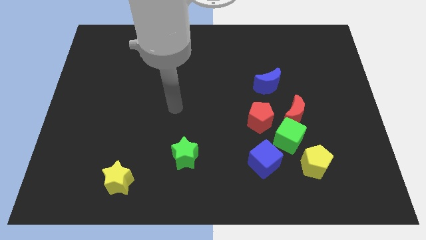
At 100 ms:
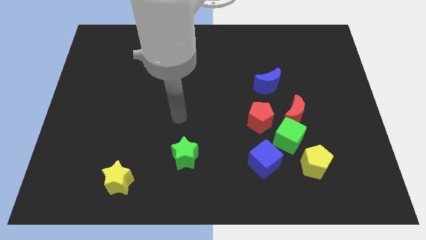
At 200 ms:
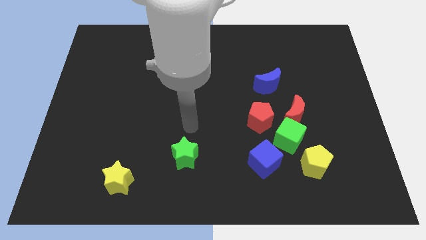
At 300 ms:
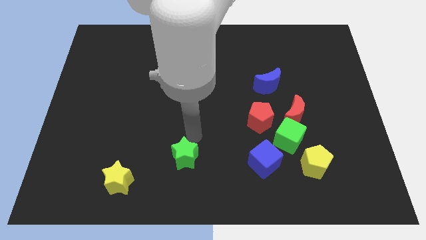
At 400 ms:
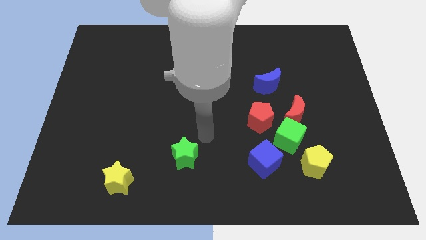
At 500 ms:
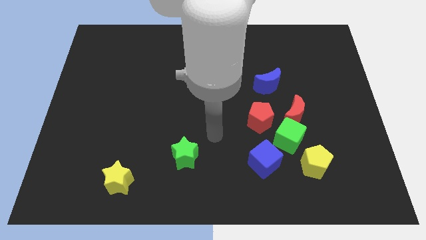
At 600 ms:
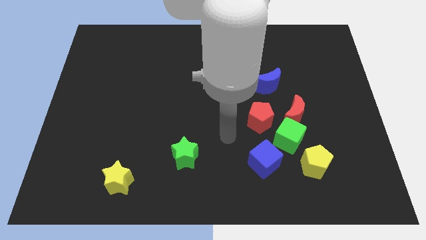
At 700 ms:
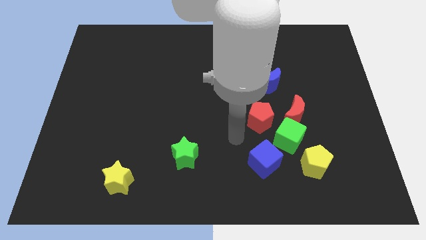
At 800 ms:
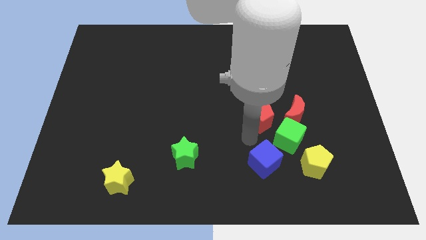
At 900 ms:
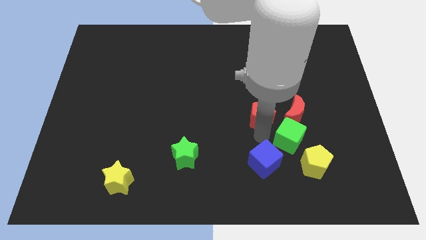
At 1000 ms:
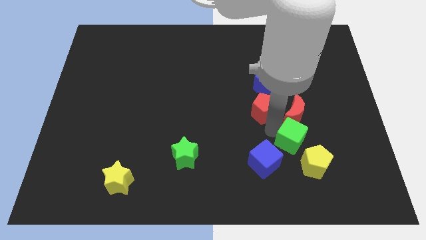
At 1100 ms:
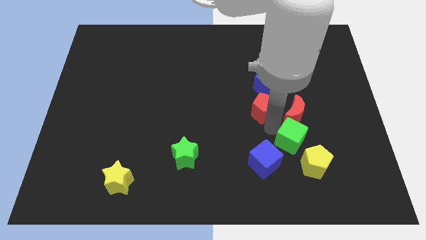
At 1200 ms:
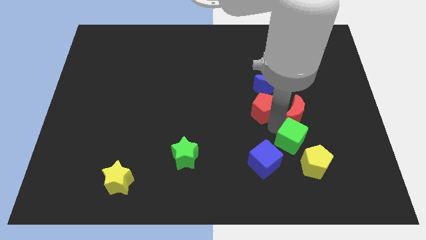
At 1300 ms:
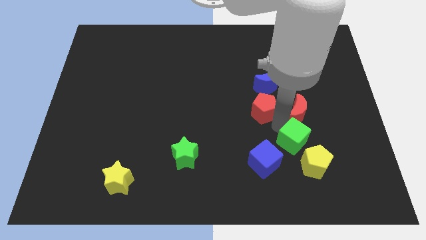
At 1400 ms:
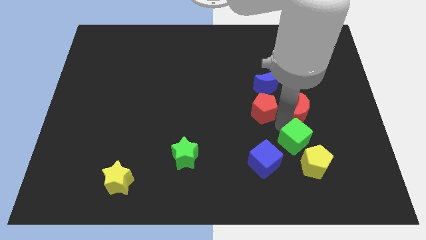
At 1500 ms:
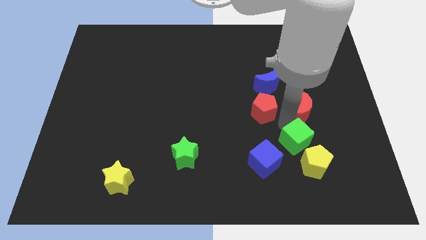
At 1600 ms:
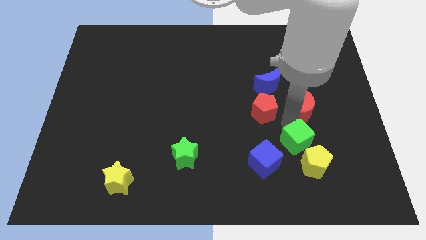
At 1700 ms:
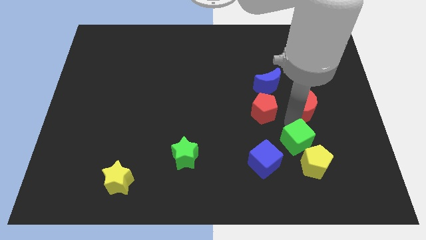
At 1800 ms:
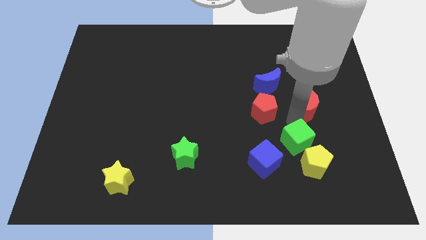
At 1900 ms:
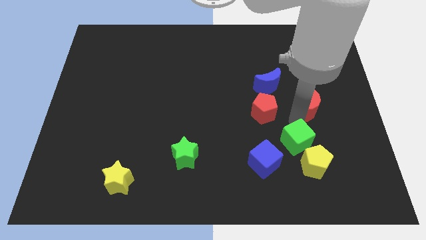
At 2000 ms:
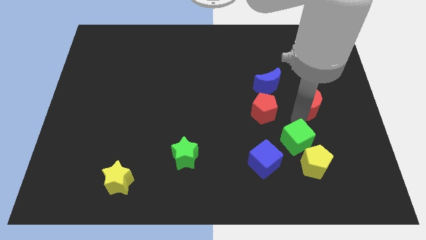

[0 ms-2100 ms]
move the red moon away from the green cube and red pentagon

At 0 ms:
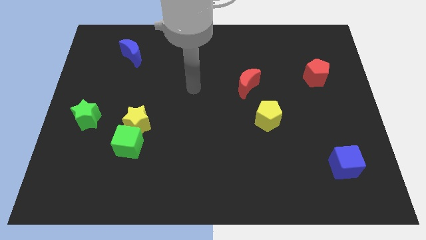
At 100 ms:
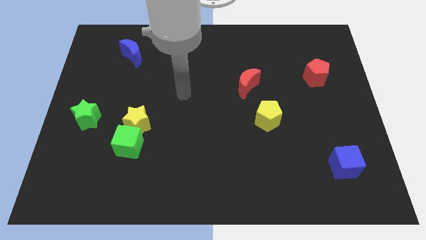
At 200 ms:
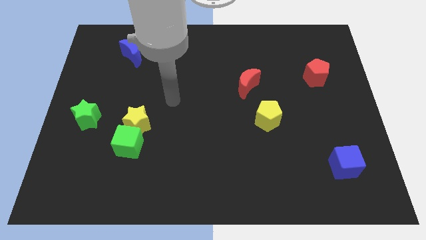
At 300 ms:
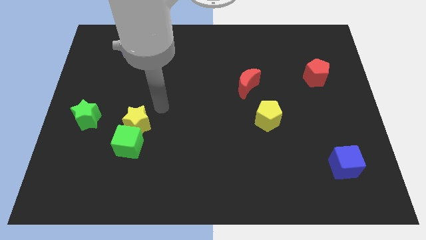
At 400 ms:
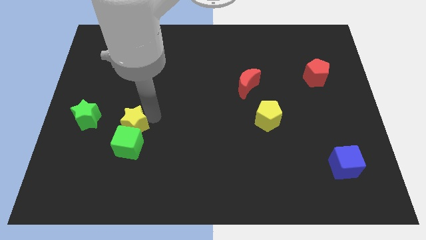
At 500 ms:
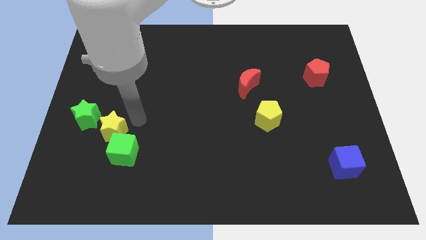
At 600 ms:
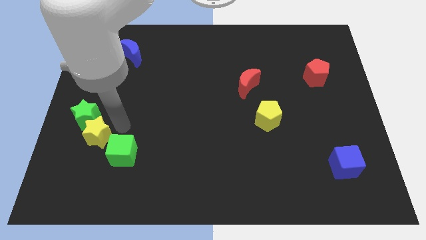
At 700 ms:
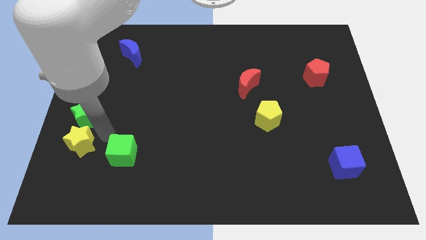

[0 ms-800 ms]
move the green cube away from the yellow star

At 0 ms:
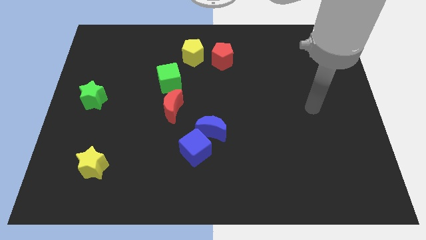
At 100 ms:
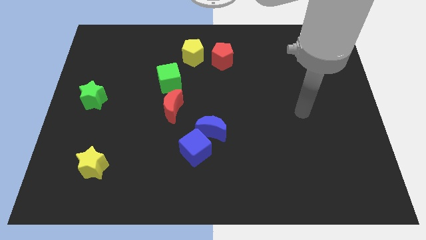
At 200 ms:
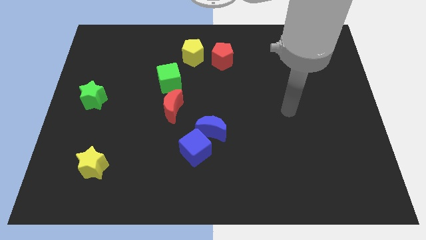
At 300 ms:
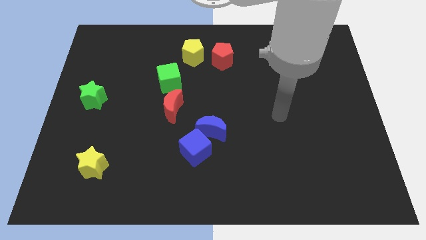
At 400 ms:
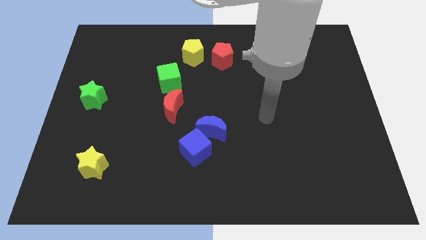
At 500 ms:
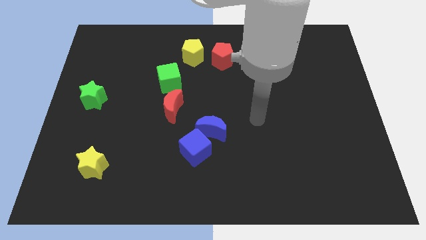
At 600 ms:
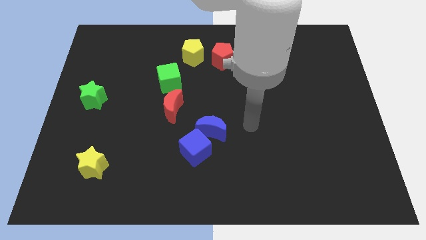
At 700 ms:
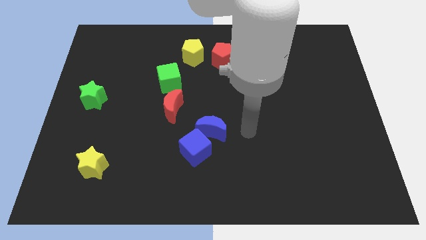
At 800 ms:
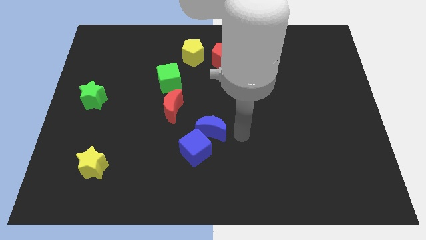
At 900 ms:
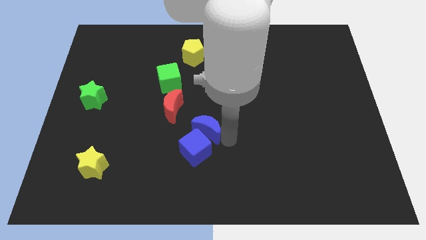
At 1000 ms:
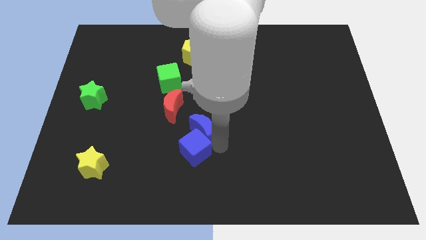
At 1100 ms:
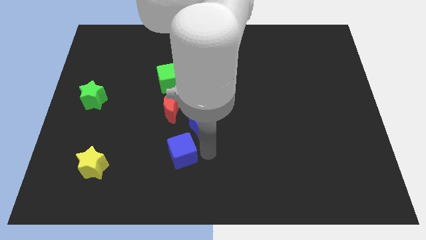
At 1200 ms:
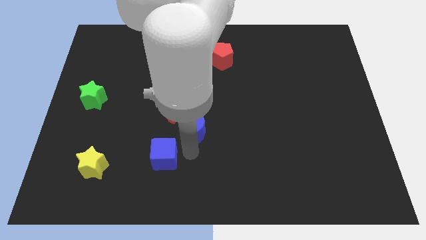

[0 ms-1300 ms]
pull the blue moon apart from the blue cube

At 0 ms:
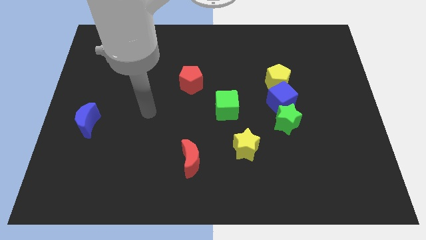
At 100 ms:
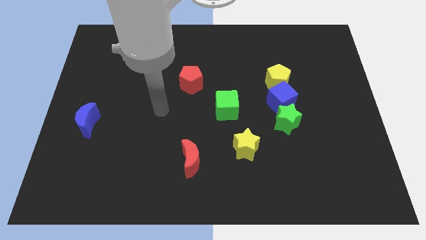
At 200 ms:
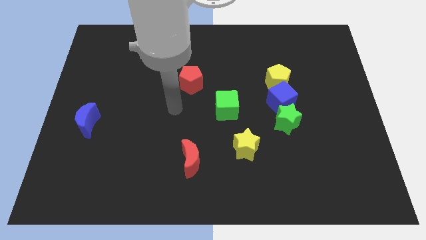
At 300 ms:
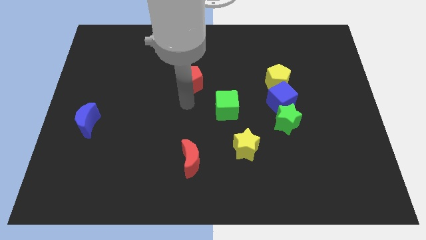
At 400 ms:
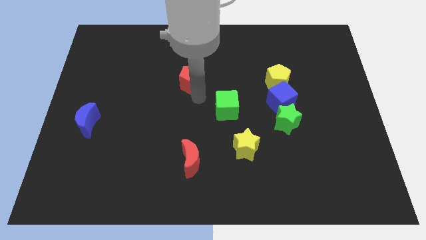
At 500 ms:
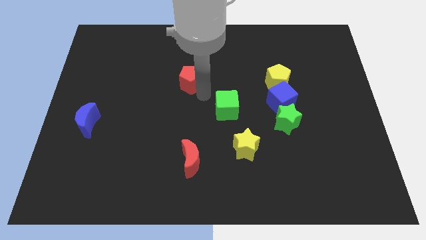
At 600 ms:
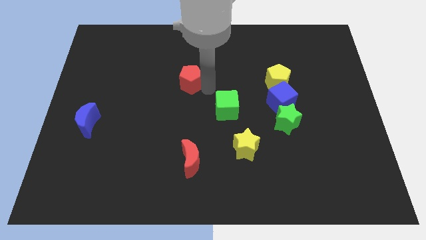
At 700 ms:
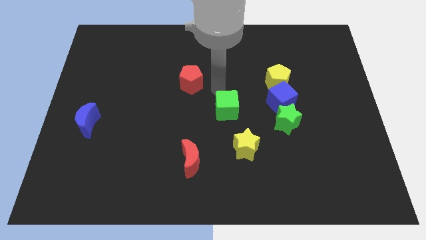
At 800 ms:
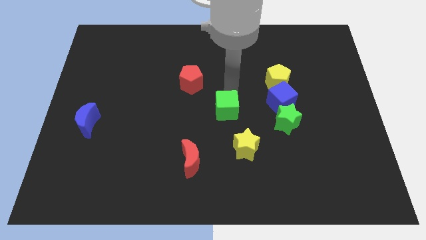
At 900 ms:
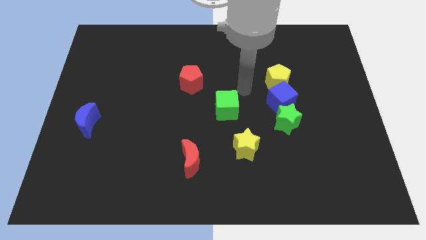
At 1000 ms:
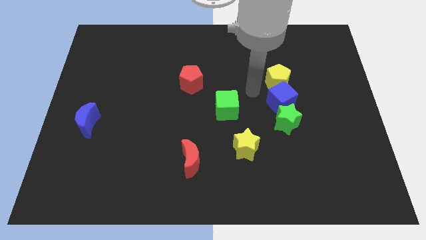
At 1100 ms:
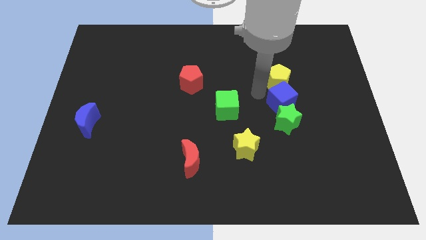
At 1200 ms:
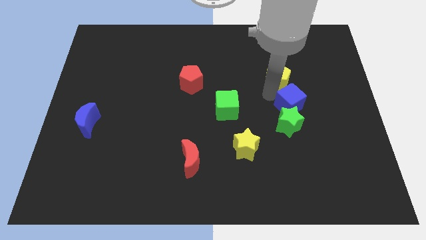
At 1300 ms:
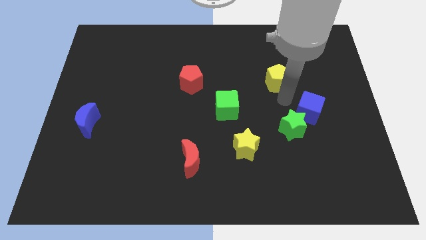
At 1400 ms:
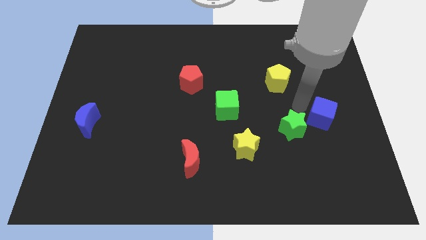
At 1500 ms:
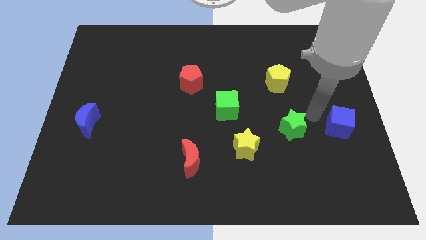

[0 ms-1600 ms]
move the green star away from the blue cube

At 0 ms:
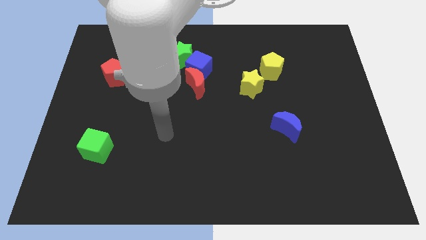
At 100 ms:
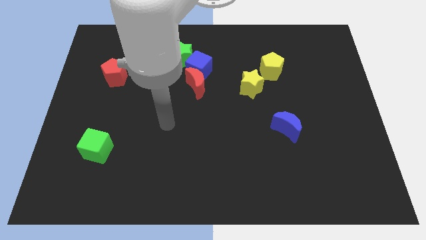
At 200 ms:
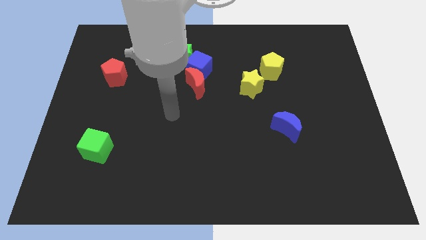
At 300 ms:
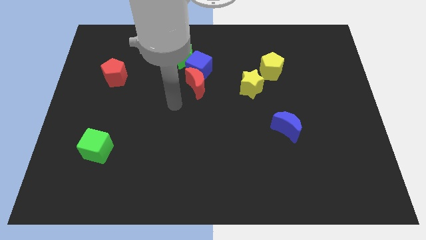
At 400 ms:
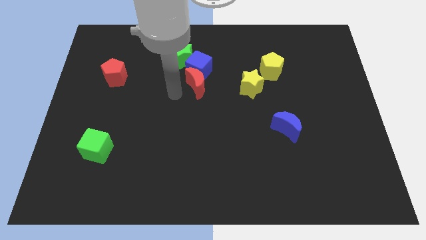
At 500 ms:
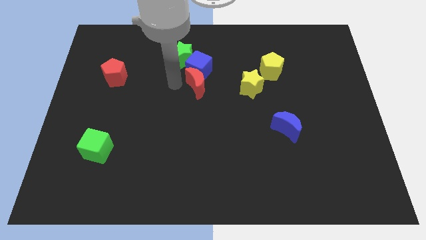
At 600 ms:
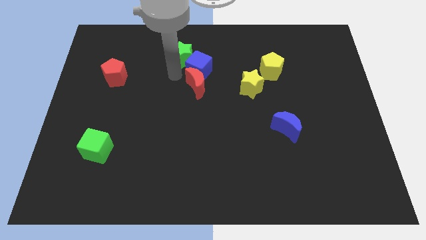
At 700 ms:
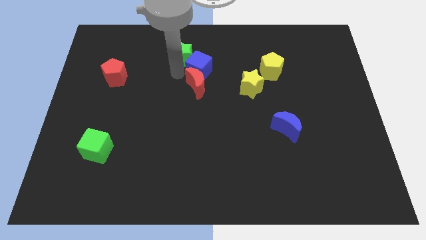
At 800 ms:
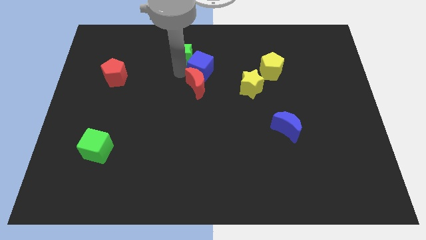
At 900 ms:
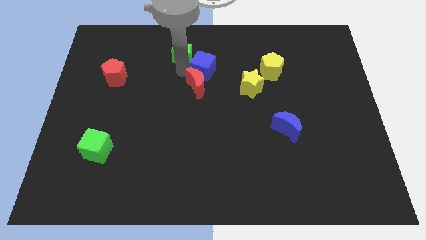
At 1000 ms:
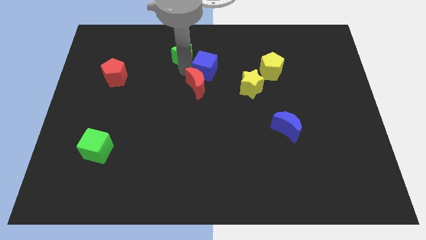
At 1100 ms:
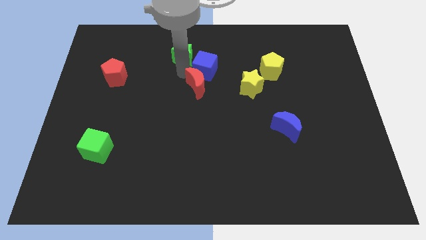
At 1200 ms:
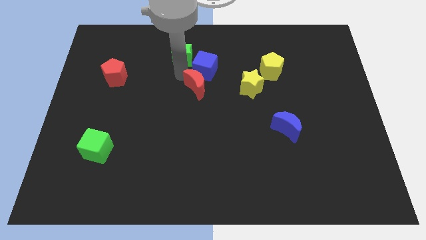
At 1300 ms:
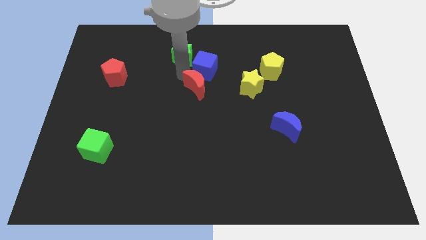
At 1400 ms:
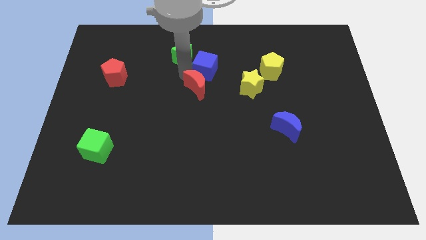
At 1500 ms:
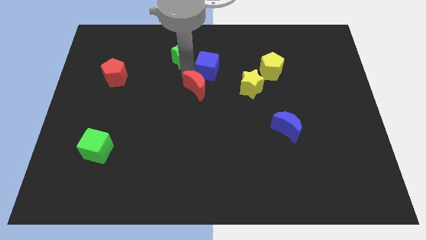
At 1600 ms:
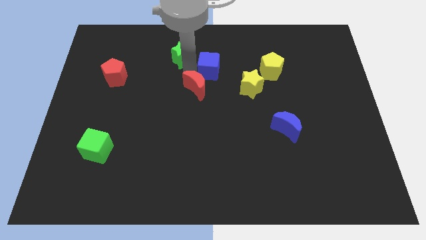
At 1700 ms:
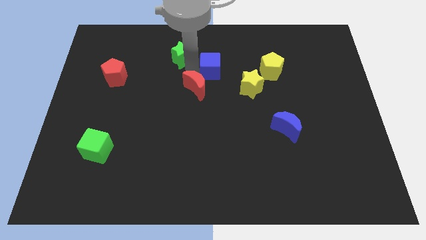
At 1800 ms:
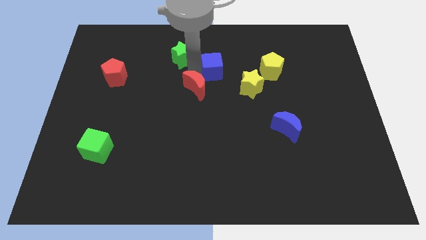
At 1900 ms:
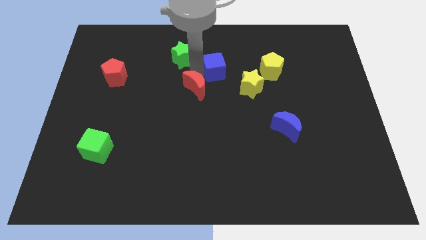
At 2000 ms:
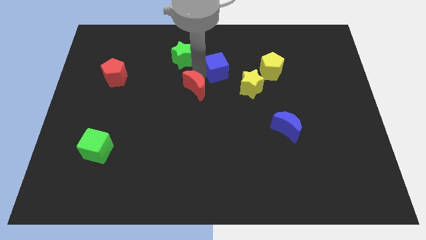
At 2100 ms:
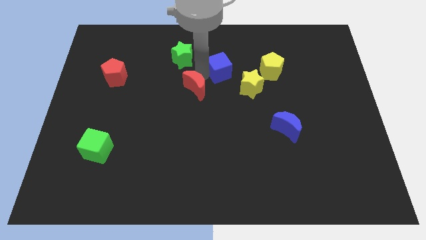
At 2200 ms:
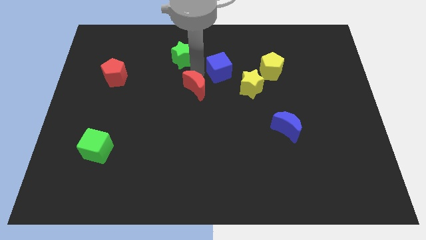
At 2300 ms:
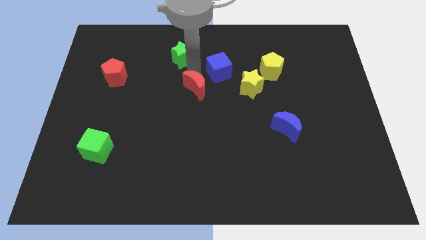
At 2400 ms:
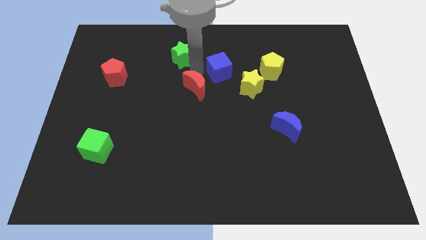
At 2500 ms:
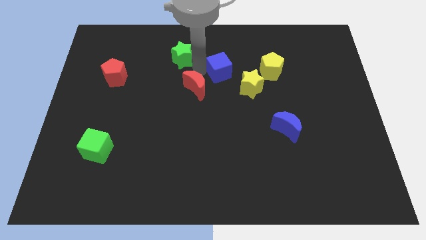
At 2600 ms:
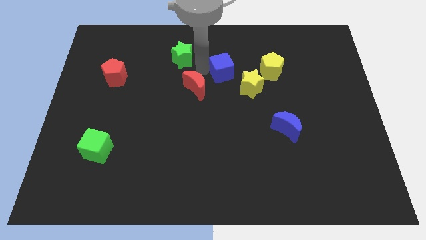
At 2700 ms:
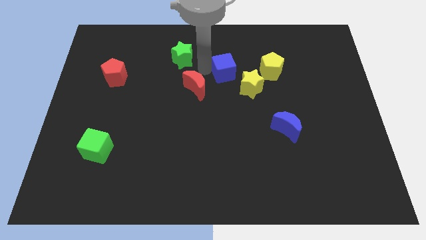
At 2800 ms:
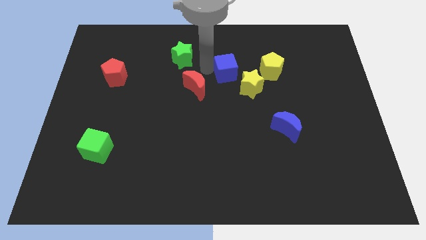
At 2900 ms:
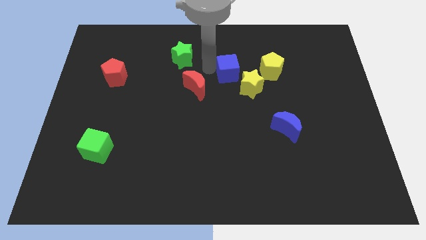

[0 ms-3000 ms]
move the blue cube away from the red moon and green star

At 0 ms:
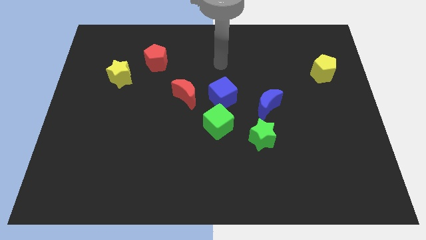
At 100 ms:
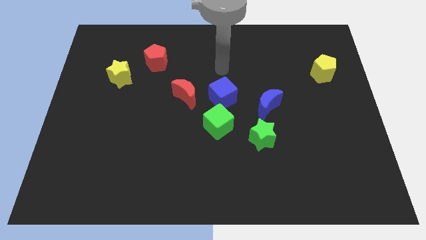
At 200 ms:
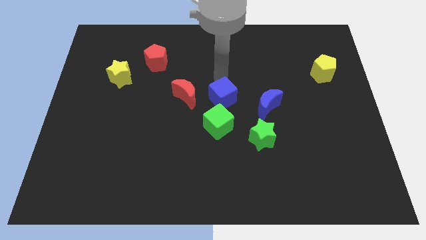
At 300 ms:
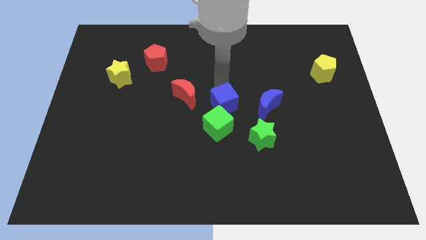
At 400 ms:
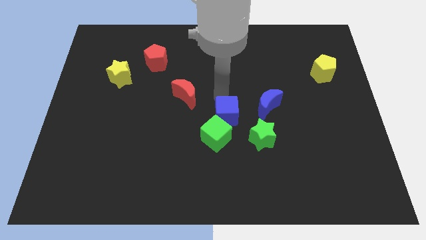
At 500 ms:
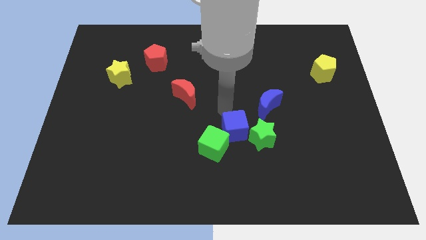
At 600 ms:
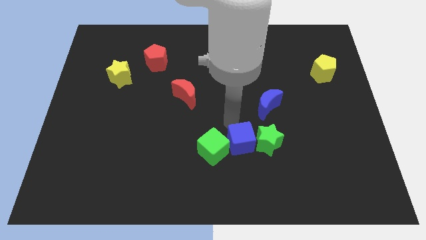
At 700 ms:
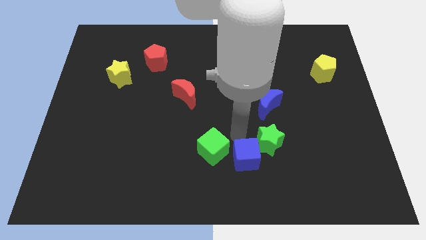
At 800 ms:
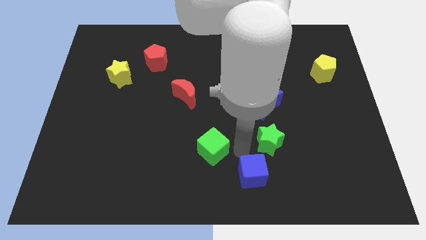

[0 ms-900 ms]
separate the green cube from the blue cube
